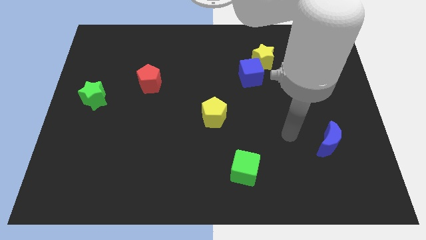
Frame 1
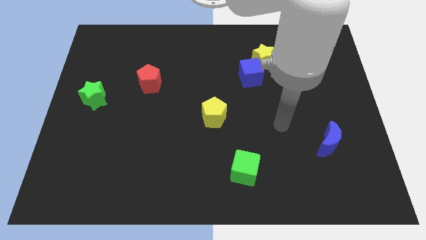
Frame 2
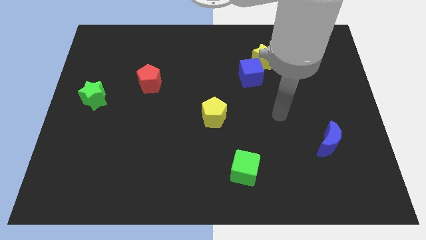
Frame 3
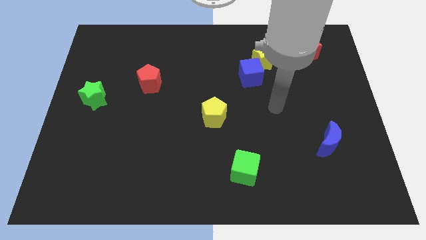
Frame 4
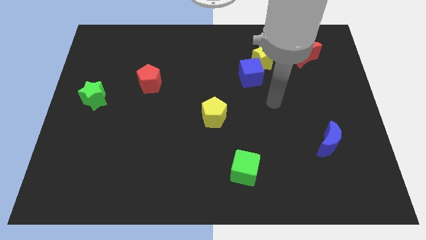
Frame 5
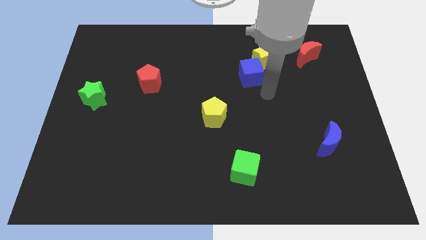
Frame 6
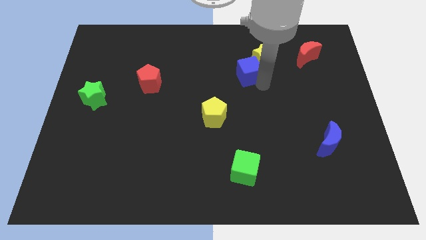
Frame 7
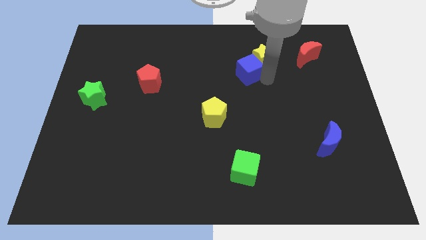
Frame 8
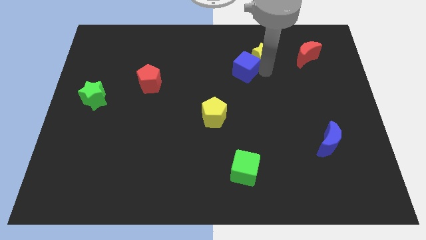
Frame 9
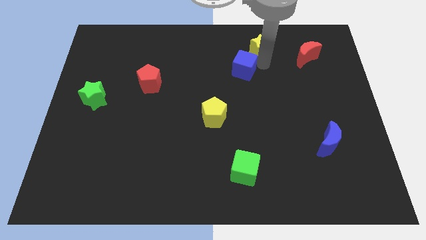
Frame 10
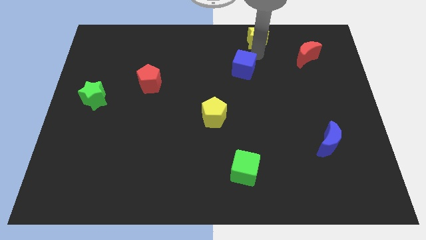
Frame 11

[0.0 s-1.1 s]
move the blue cube away from the yellow star

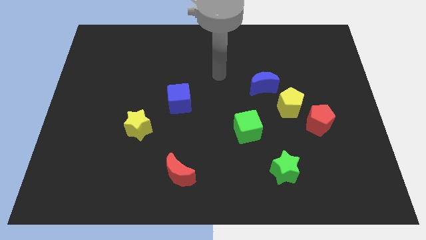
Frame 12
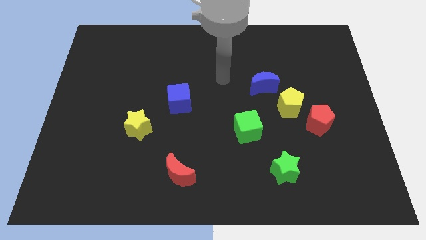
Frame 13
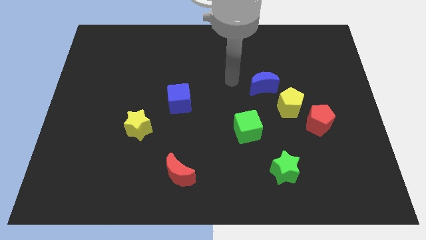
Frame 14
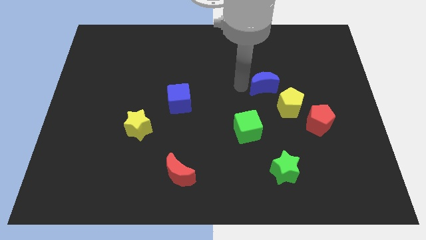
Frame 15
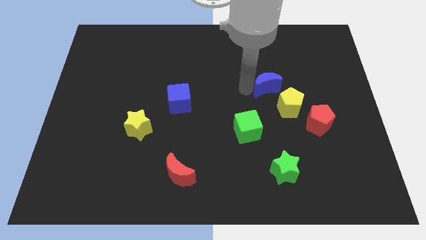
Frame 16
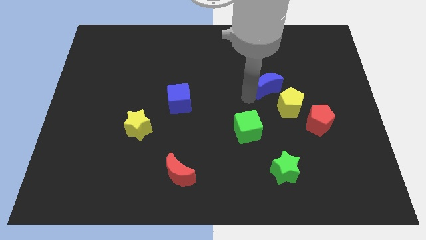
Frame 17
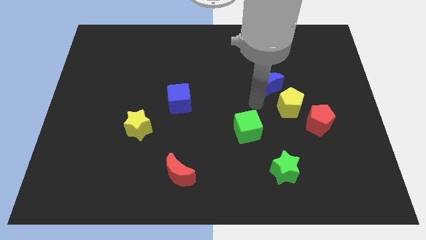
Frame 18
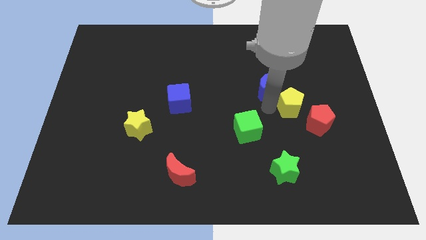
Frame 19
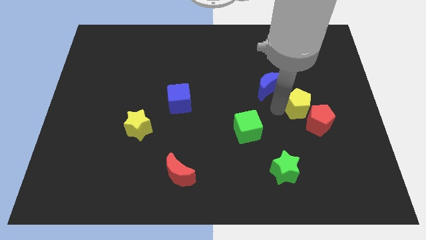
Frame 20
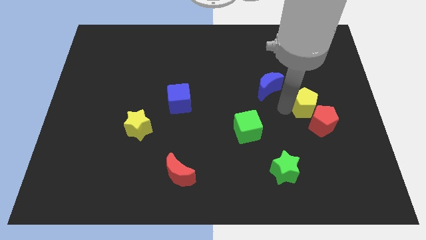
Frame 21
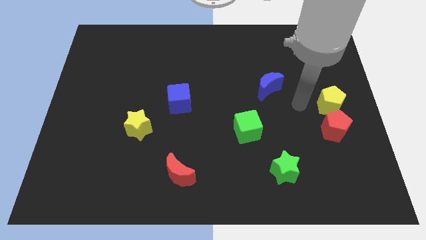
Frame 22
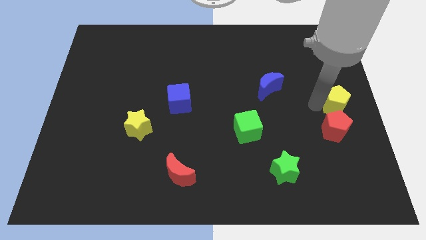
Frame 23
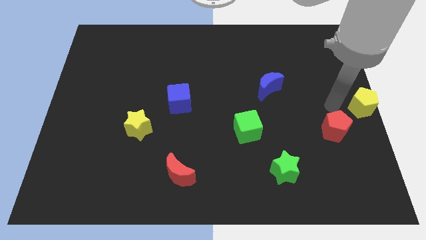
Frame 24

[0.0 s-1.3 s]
move the red pentagon away from the yellow pentagon

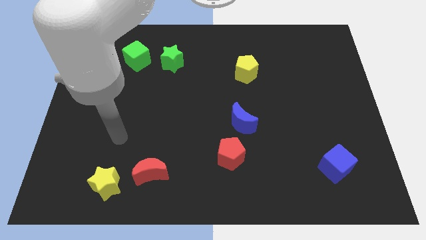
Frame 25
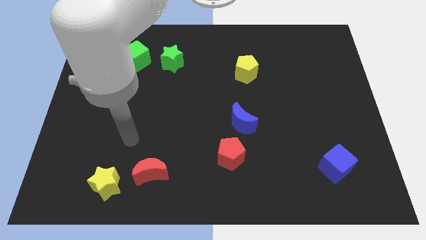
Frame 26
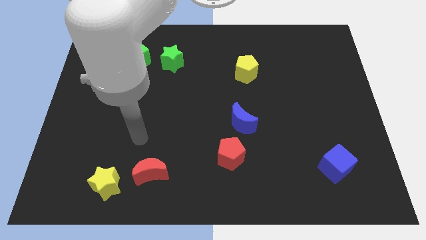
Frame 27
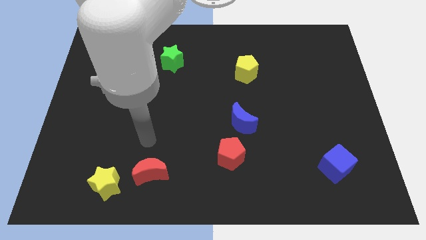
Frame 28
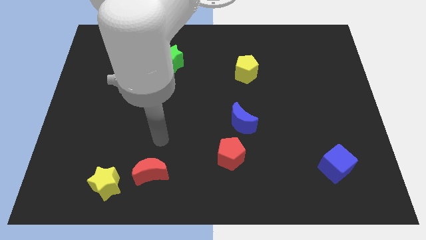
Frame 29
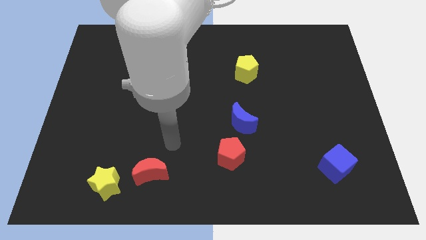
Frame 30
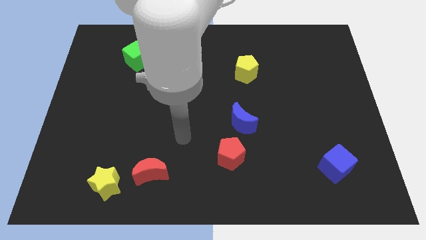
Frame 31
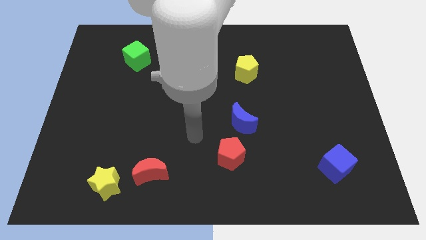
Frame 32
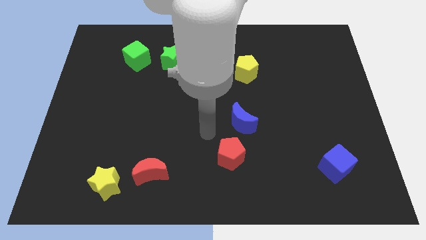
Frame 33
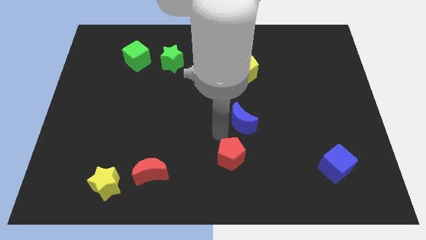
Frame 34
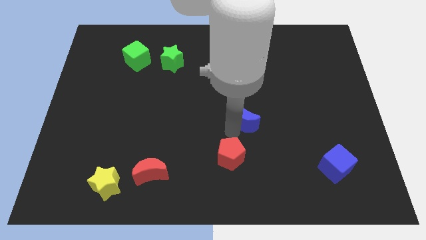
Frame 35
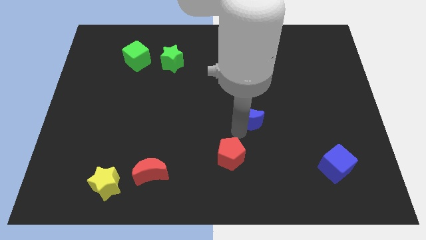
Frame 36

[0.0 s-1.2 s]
pull the red pentagon apart from the blue moon

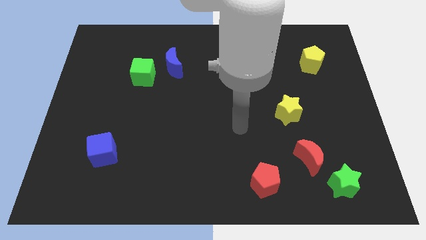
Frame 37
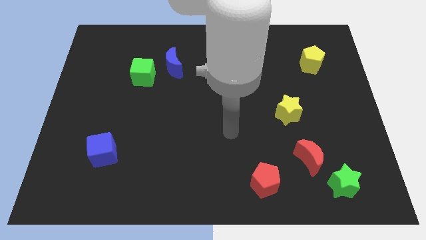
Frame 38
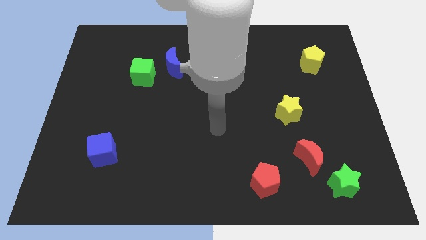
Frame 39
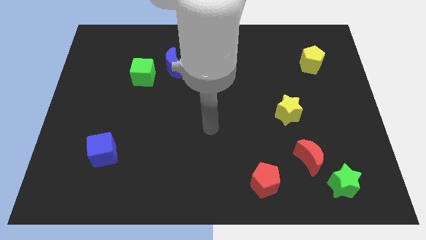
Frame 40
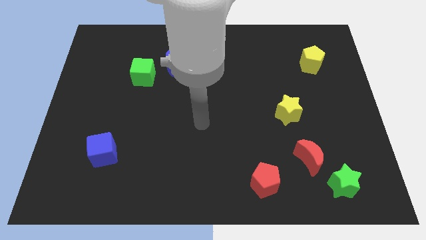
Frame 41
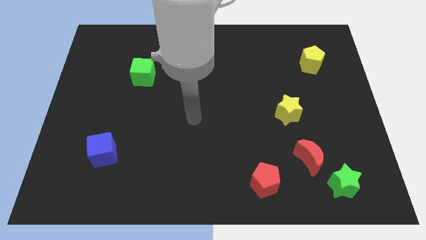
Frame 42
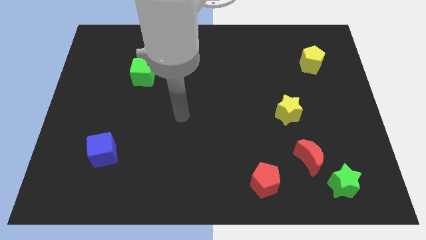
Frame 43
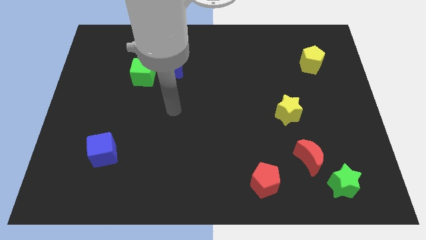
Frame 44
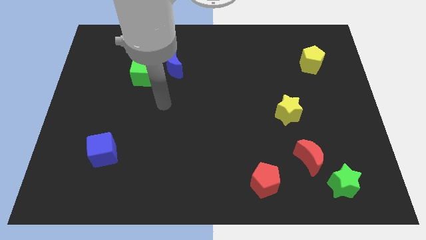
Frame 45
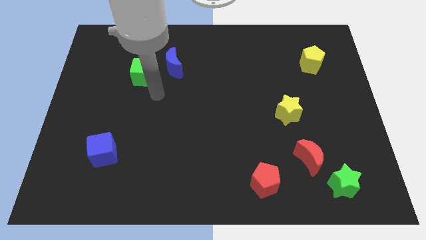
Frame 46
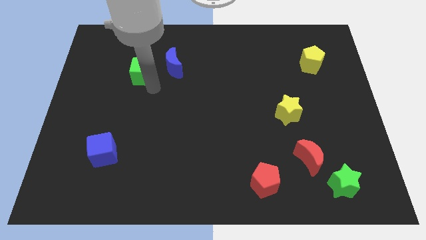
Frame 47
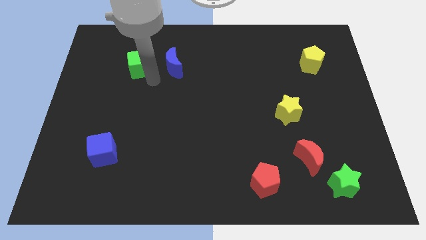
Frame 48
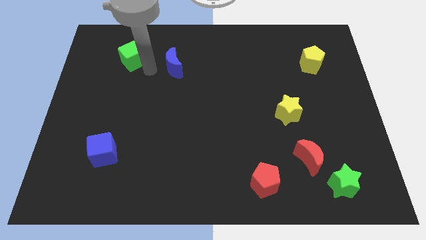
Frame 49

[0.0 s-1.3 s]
pull the blue moon apart from the green cube

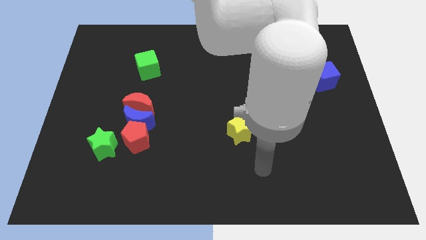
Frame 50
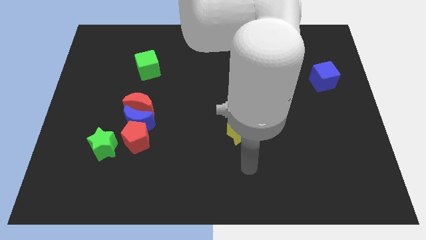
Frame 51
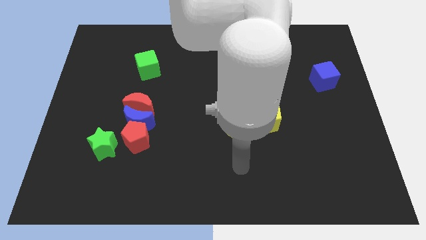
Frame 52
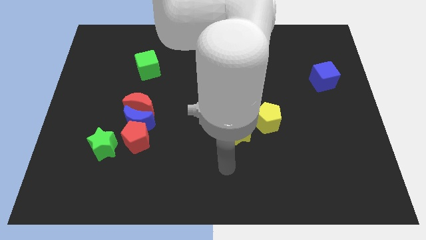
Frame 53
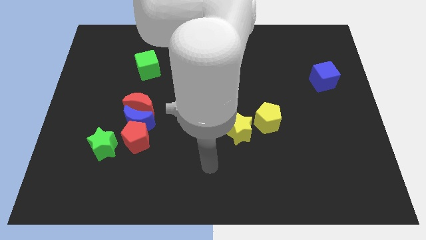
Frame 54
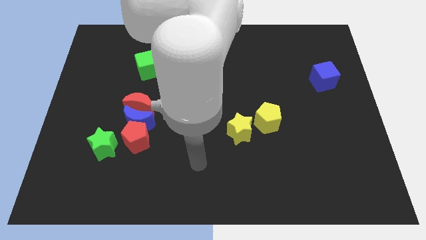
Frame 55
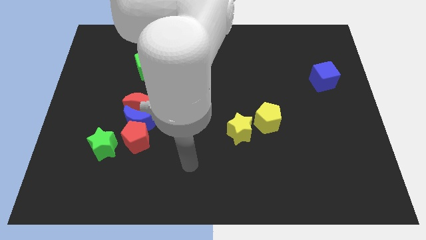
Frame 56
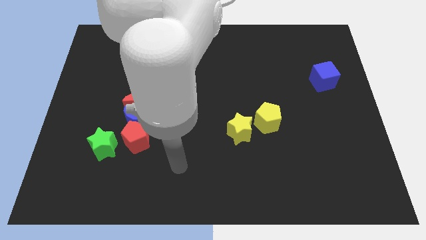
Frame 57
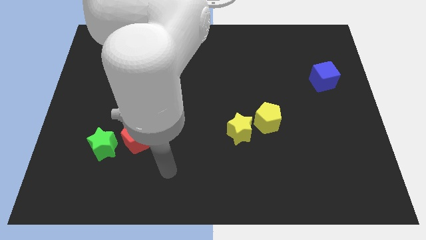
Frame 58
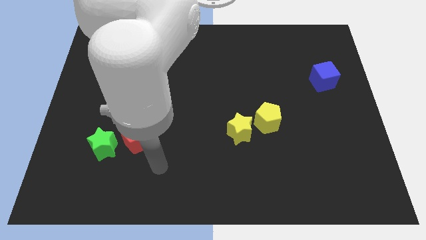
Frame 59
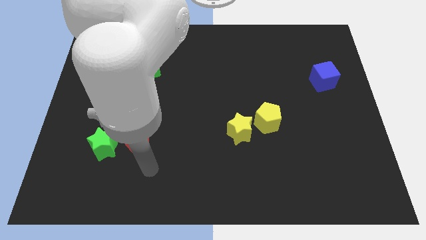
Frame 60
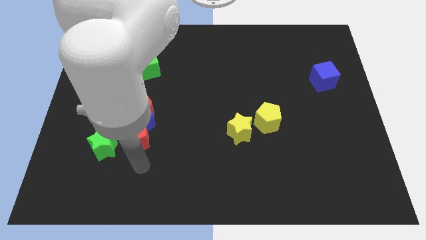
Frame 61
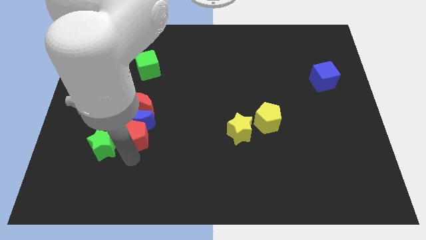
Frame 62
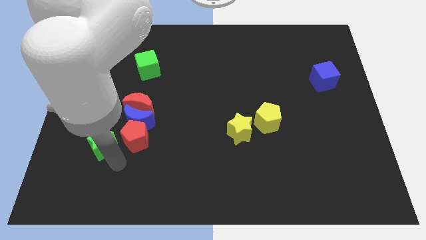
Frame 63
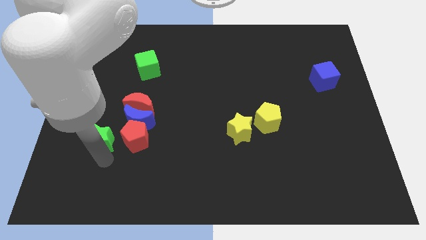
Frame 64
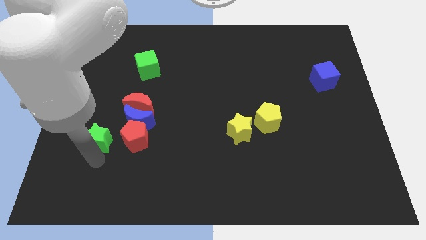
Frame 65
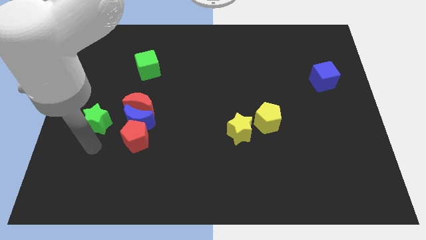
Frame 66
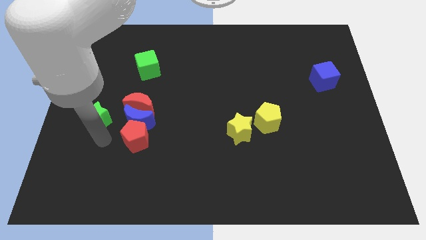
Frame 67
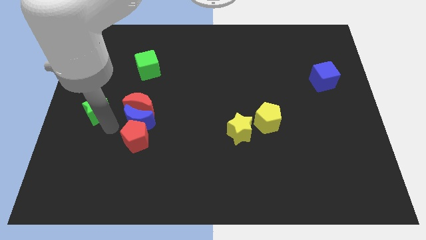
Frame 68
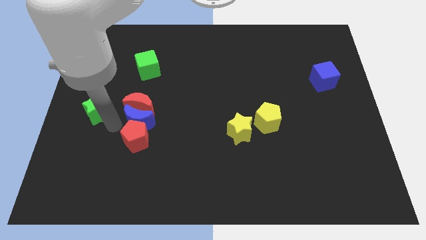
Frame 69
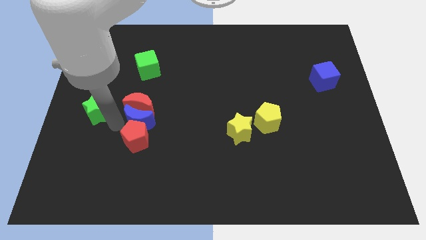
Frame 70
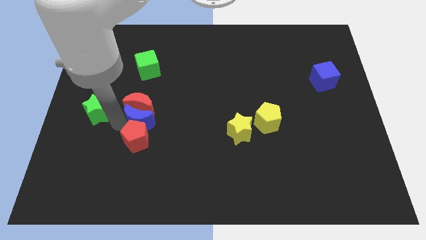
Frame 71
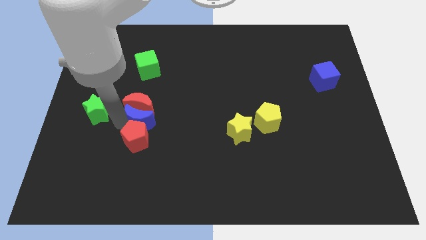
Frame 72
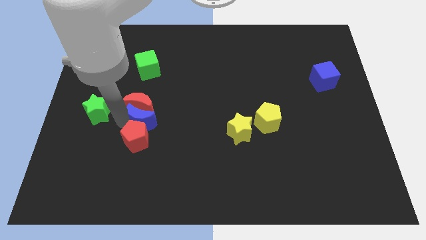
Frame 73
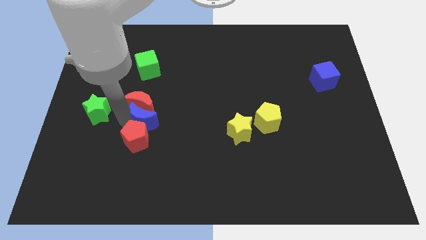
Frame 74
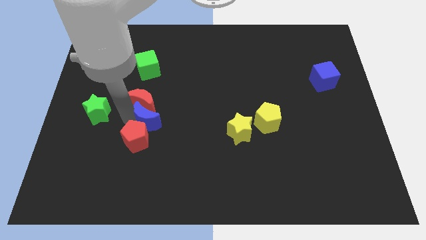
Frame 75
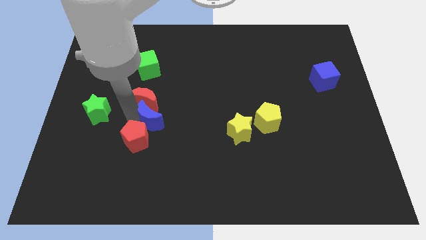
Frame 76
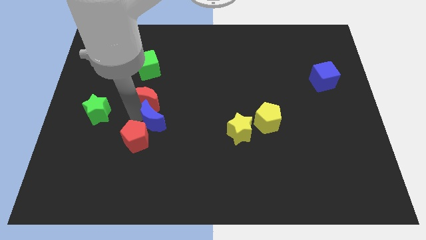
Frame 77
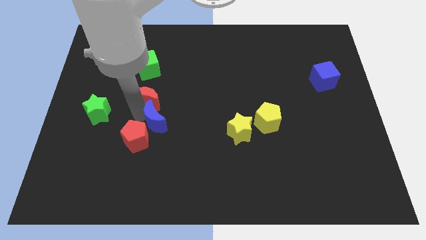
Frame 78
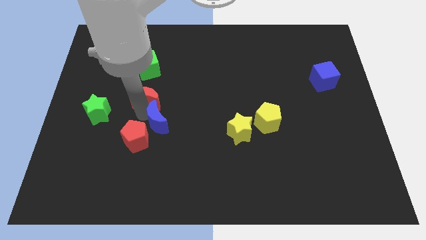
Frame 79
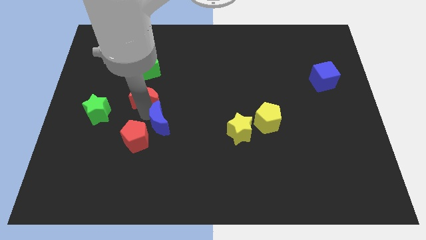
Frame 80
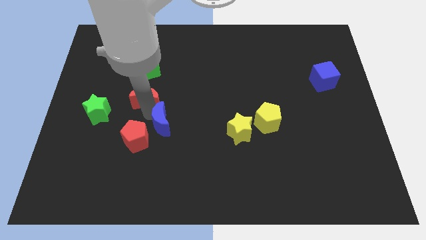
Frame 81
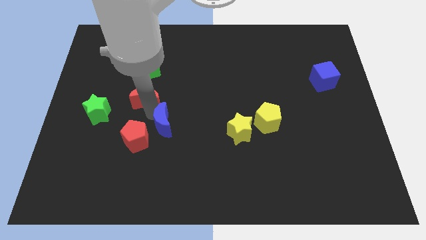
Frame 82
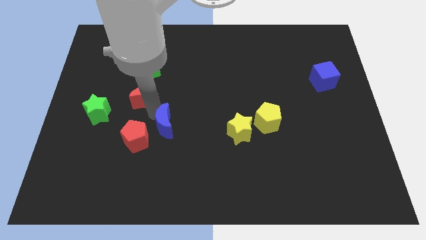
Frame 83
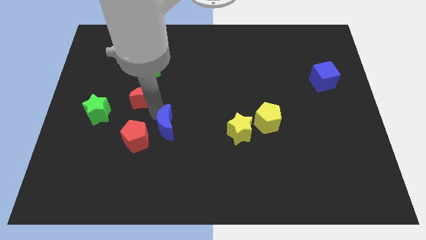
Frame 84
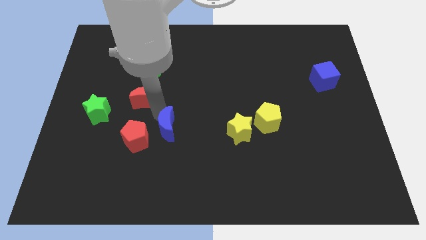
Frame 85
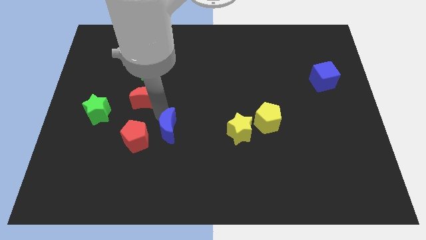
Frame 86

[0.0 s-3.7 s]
separate the blue moon from the red pentagon, red moon, and green star

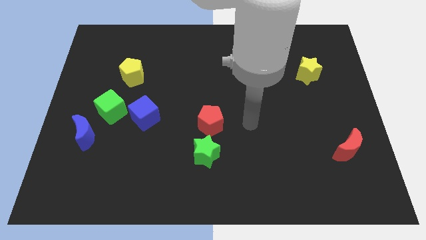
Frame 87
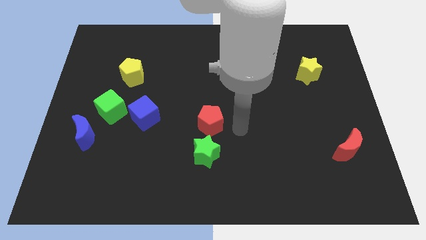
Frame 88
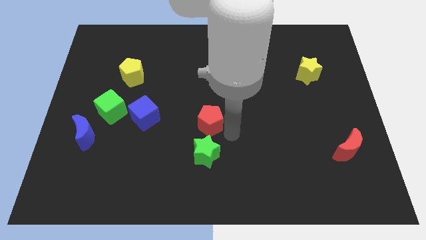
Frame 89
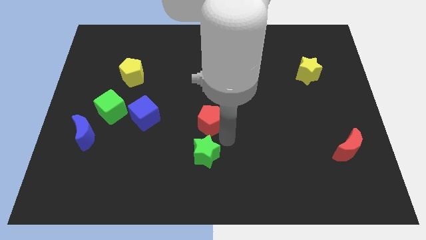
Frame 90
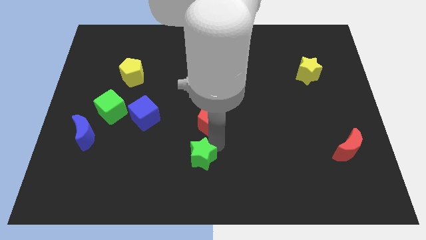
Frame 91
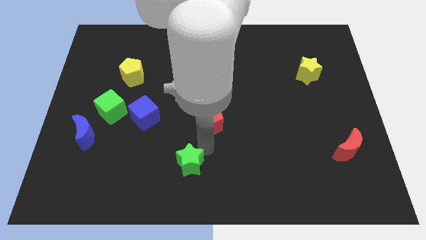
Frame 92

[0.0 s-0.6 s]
pull the red pentagon apart from the green star
